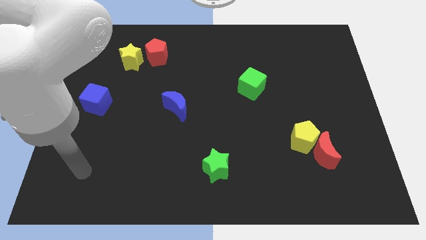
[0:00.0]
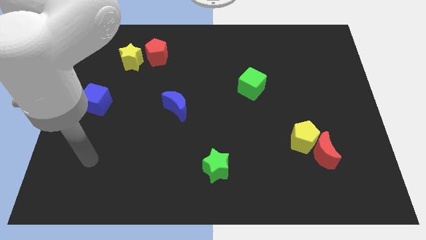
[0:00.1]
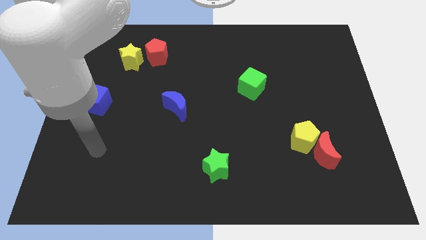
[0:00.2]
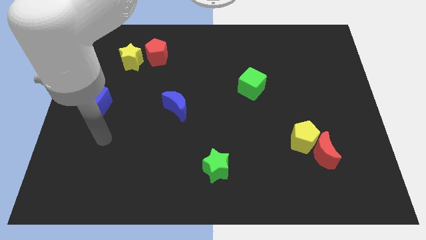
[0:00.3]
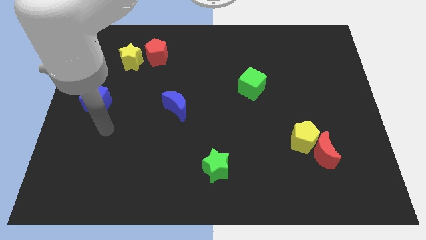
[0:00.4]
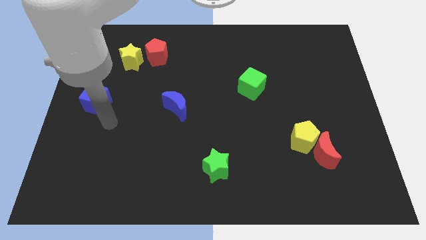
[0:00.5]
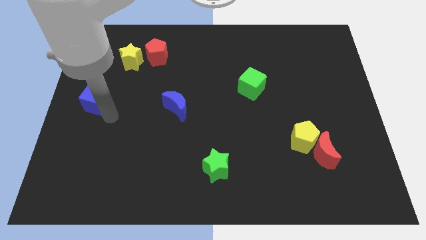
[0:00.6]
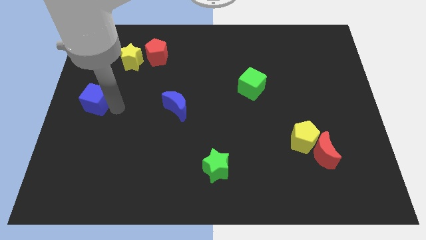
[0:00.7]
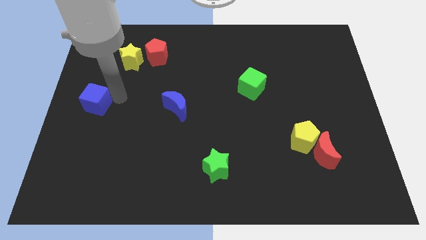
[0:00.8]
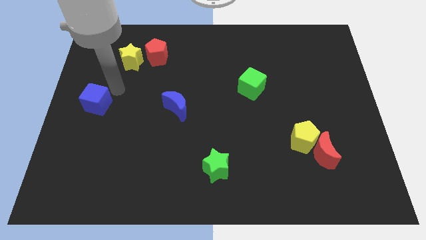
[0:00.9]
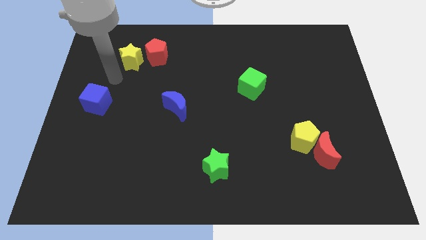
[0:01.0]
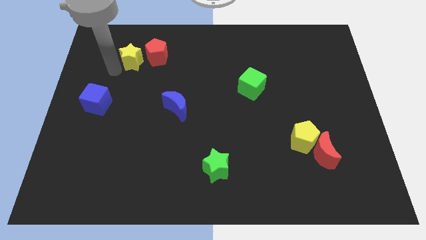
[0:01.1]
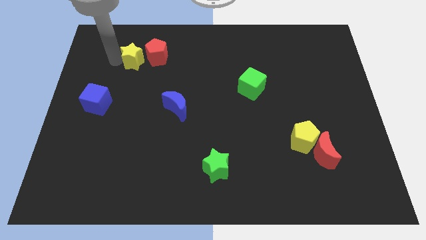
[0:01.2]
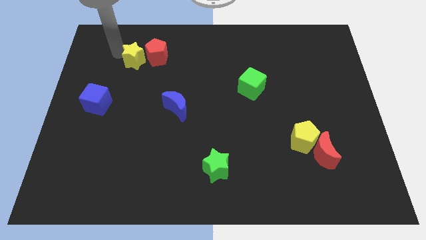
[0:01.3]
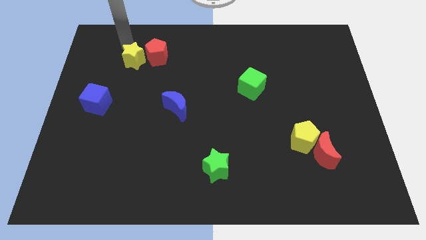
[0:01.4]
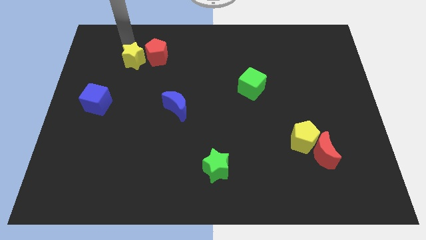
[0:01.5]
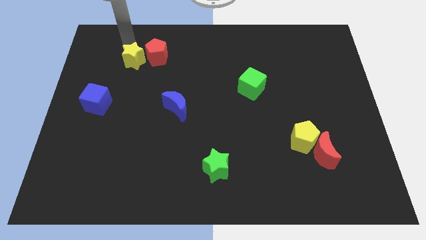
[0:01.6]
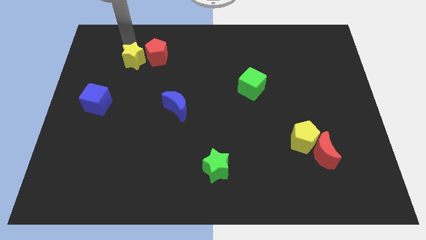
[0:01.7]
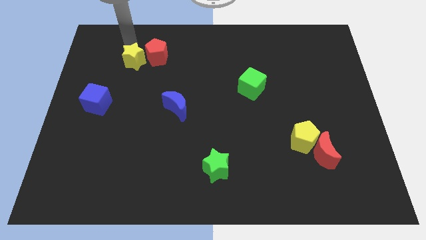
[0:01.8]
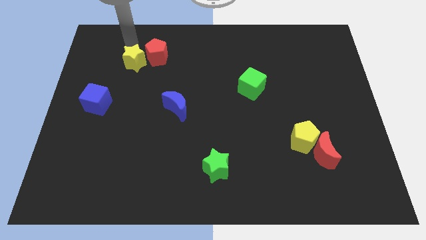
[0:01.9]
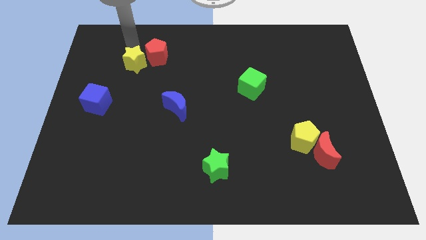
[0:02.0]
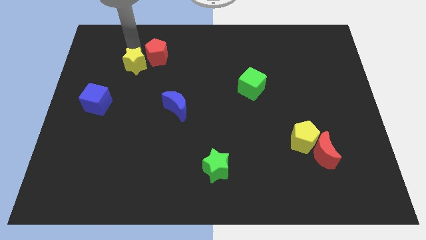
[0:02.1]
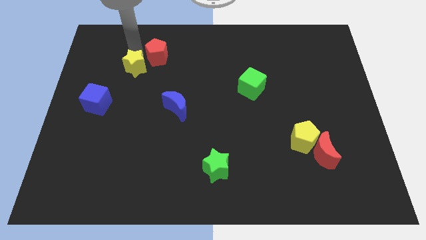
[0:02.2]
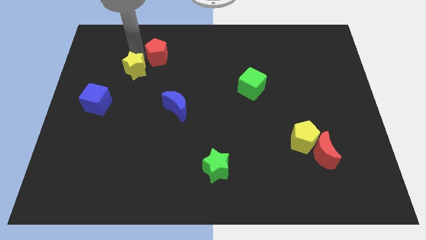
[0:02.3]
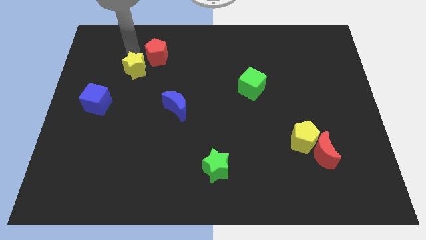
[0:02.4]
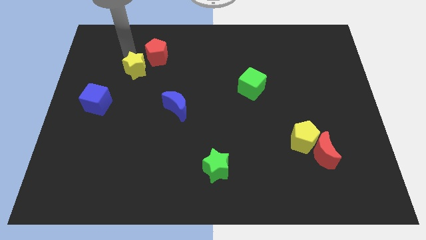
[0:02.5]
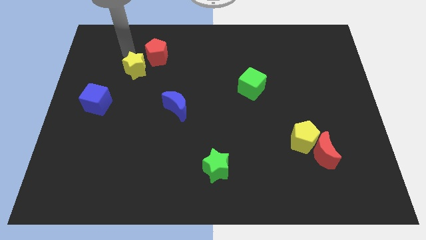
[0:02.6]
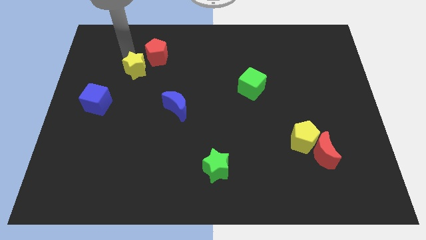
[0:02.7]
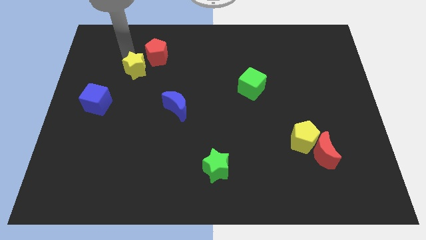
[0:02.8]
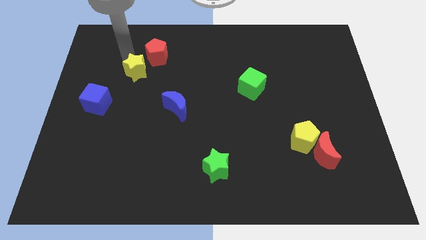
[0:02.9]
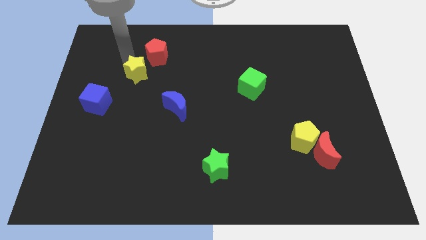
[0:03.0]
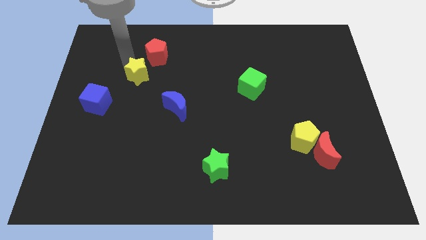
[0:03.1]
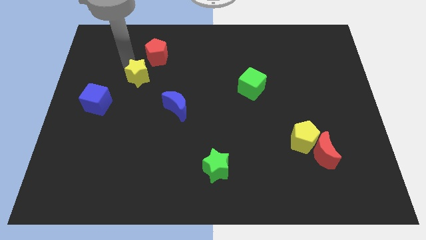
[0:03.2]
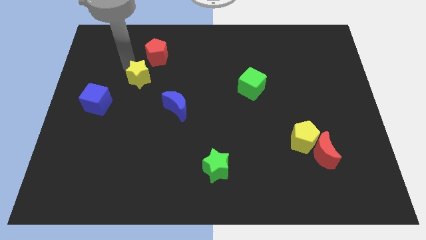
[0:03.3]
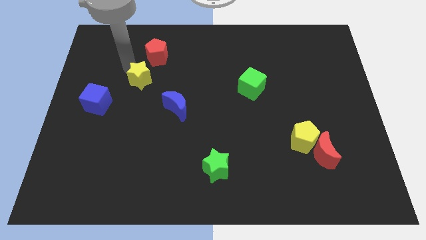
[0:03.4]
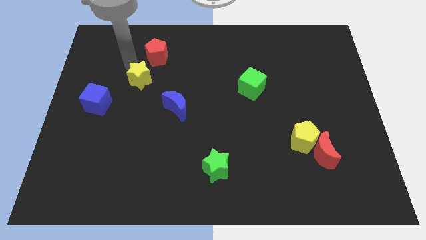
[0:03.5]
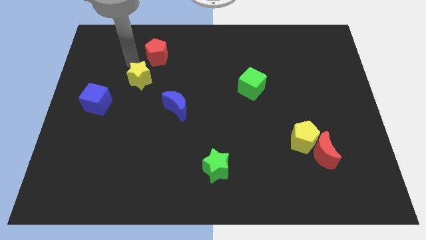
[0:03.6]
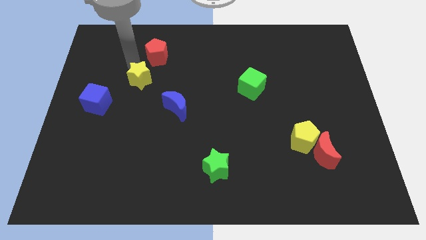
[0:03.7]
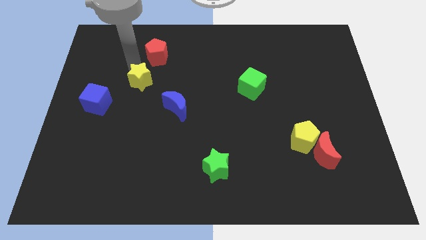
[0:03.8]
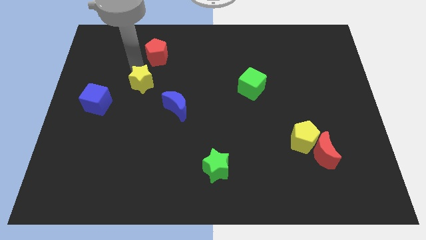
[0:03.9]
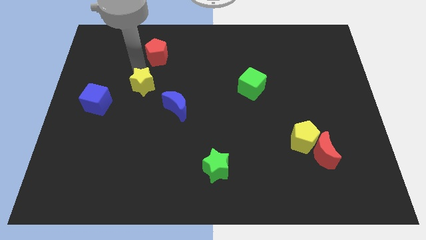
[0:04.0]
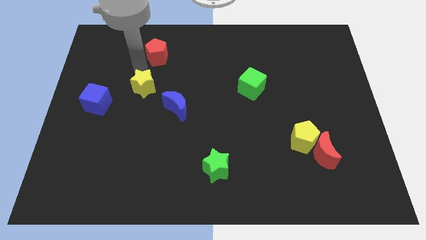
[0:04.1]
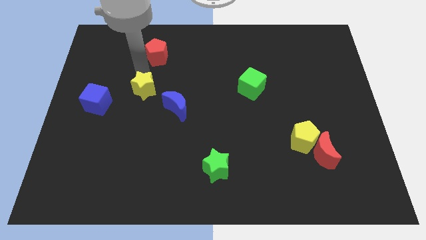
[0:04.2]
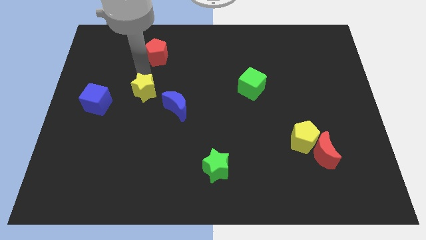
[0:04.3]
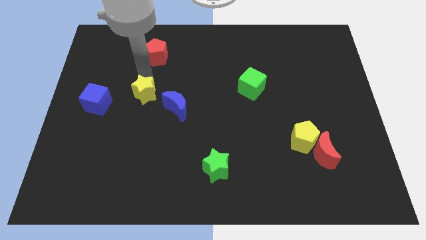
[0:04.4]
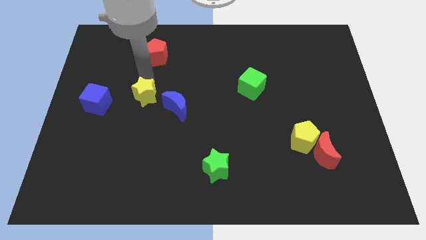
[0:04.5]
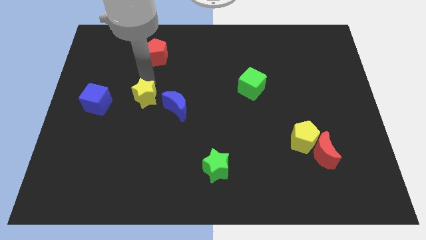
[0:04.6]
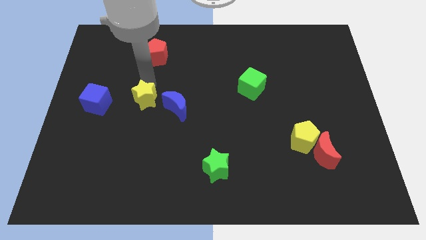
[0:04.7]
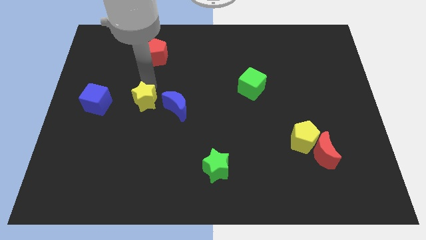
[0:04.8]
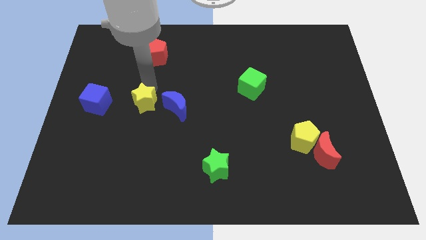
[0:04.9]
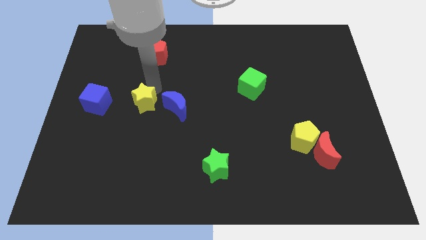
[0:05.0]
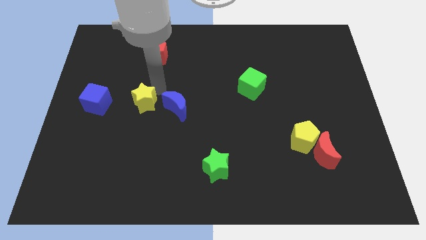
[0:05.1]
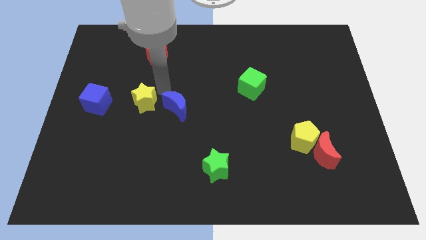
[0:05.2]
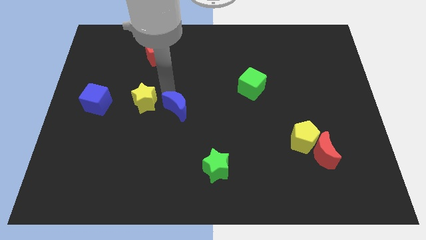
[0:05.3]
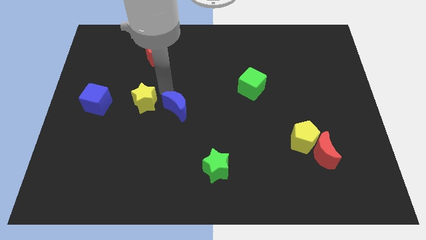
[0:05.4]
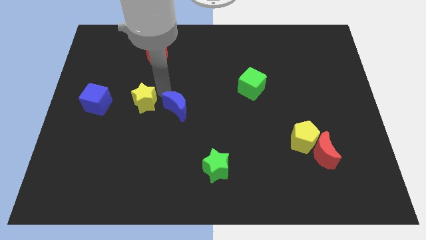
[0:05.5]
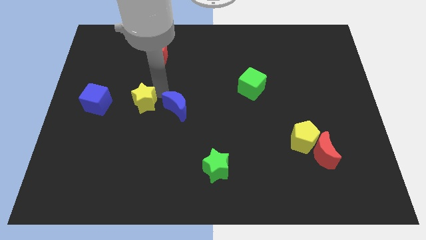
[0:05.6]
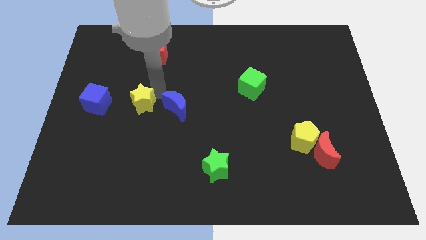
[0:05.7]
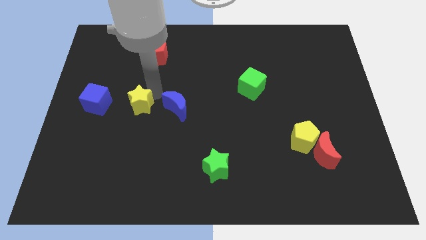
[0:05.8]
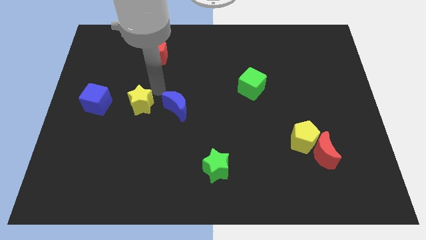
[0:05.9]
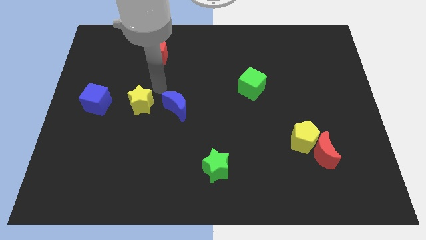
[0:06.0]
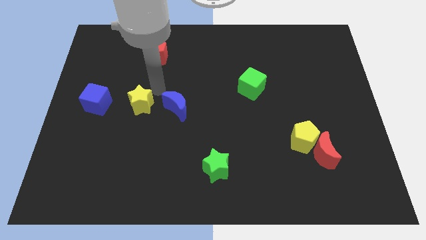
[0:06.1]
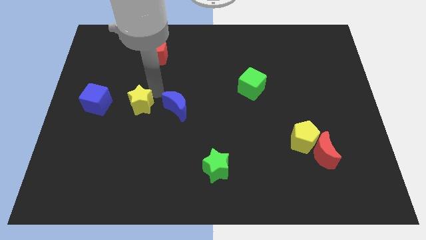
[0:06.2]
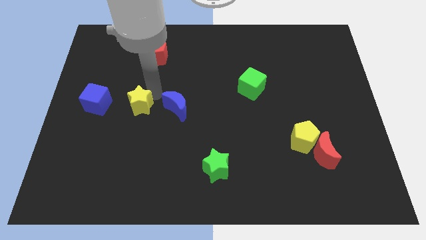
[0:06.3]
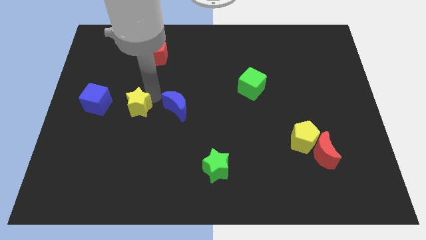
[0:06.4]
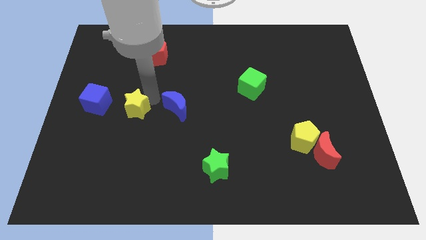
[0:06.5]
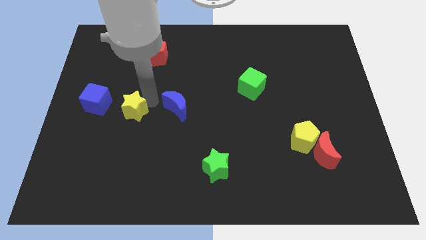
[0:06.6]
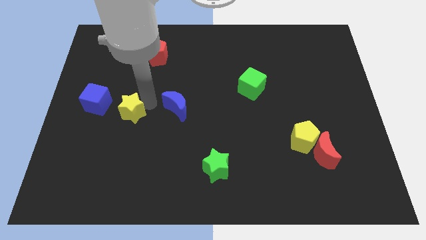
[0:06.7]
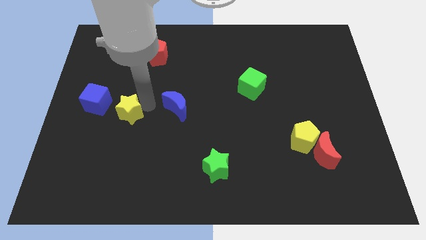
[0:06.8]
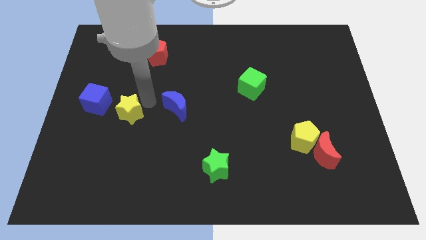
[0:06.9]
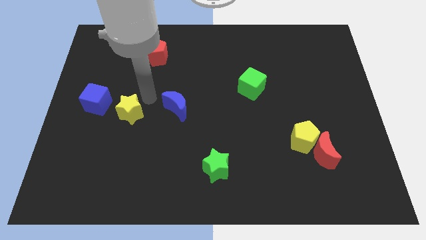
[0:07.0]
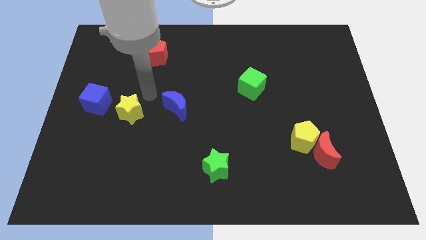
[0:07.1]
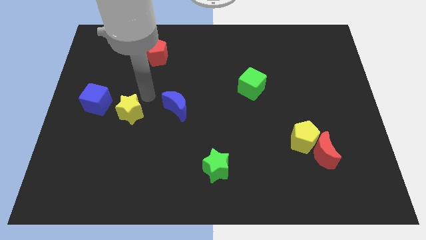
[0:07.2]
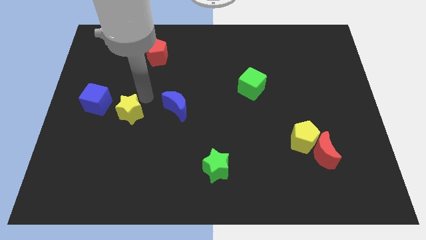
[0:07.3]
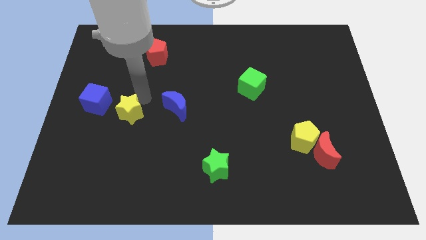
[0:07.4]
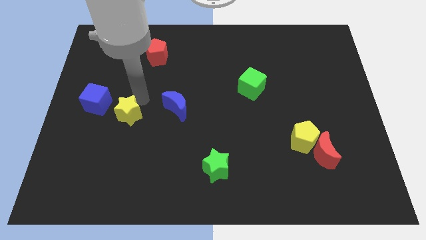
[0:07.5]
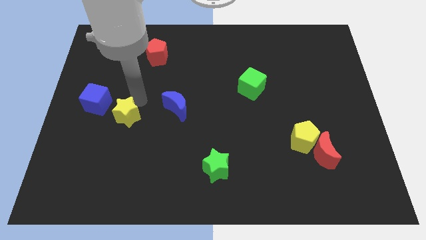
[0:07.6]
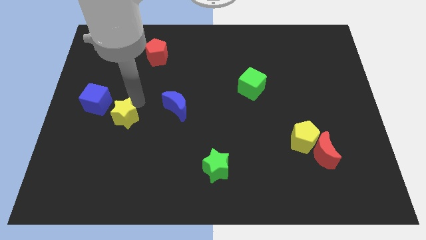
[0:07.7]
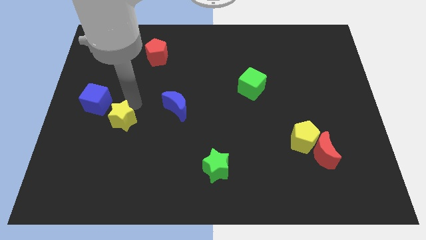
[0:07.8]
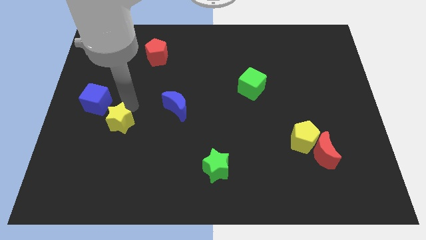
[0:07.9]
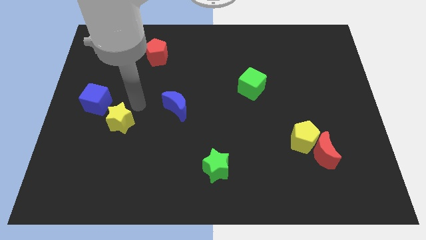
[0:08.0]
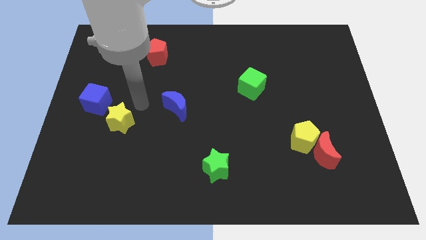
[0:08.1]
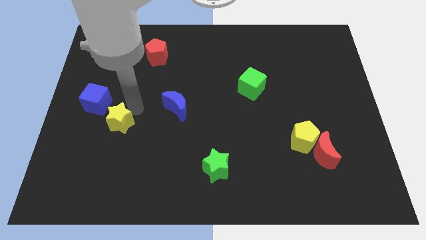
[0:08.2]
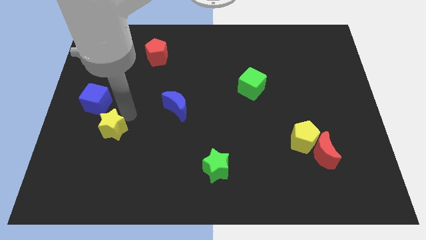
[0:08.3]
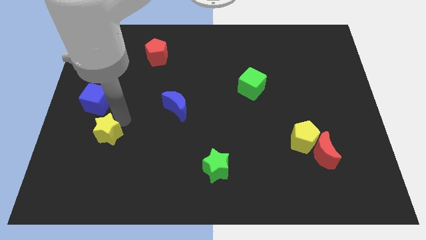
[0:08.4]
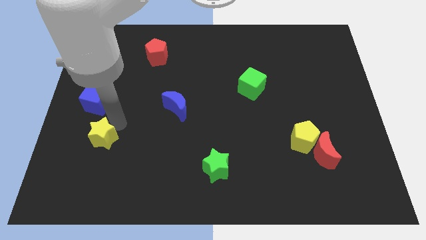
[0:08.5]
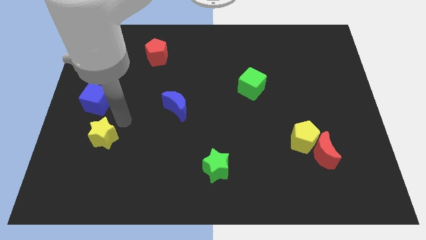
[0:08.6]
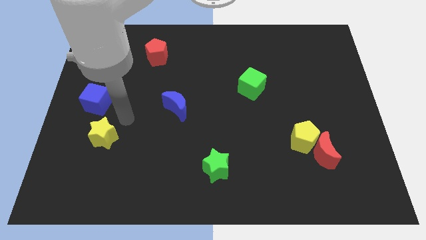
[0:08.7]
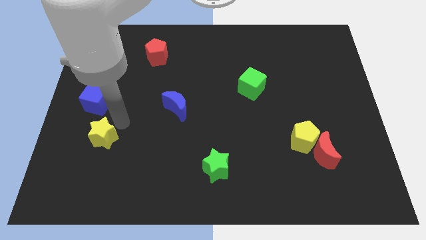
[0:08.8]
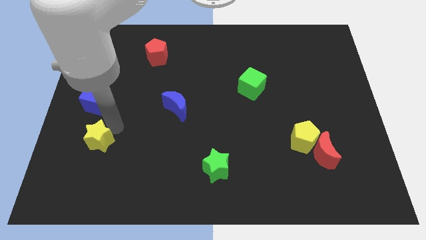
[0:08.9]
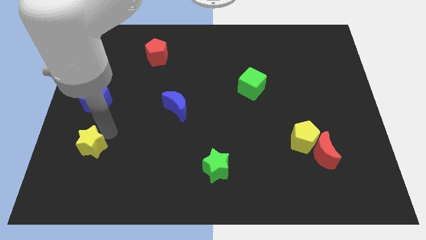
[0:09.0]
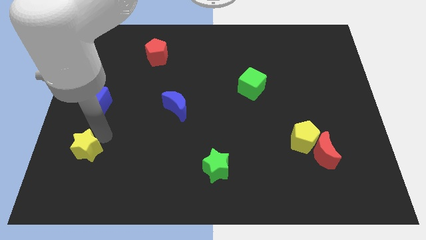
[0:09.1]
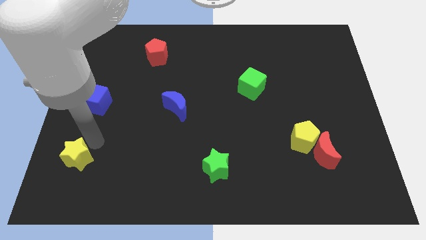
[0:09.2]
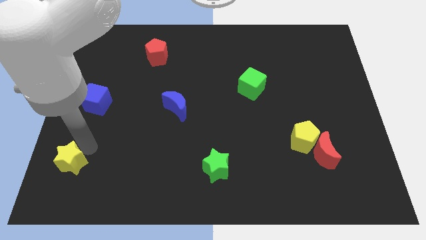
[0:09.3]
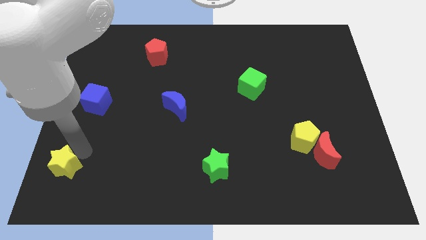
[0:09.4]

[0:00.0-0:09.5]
slide the yellow star to the bottom left corner
